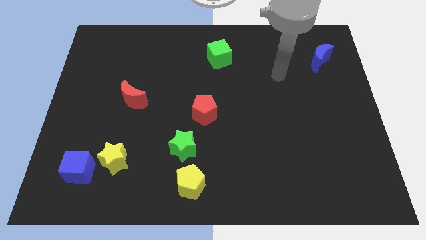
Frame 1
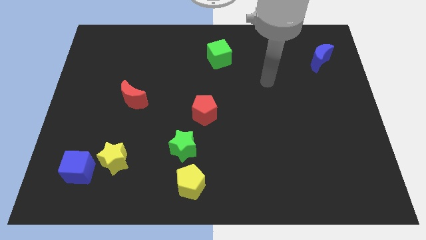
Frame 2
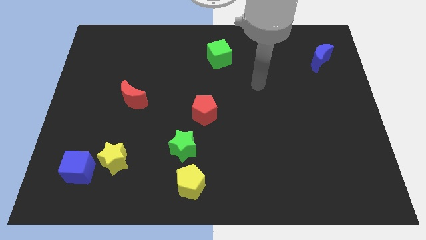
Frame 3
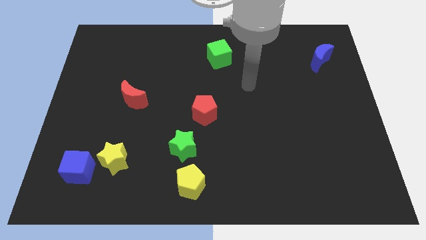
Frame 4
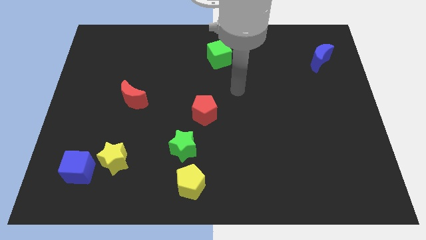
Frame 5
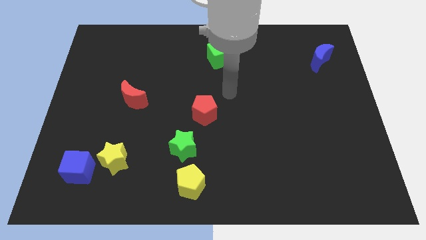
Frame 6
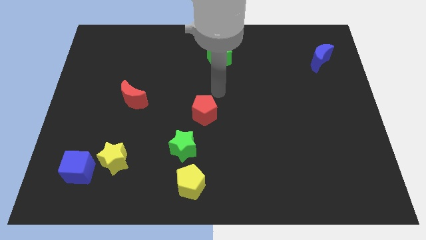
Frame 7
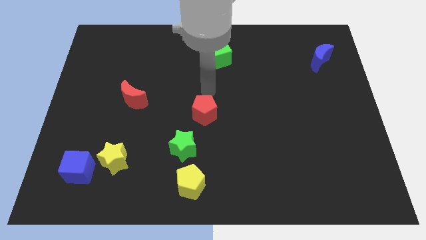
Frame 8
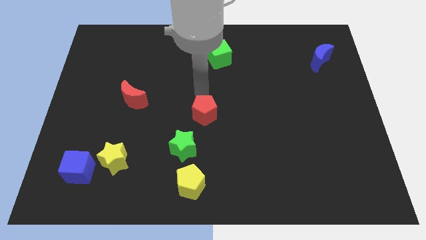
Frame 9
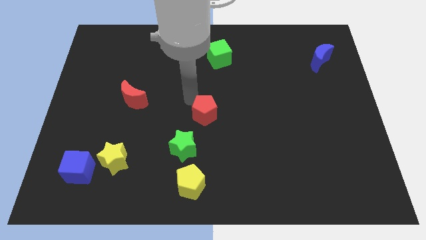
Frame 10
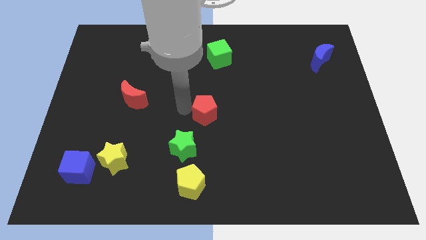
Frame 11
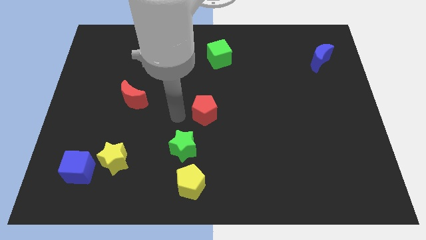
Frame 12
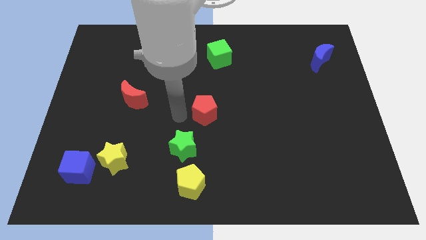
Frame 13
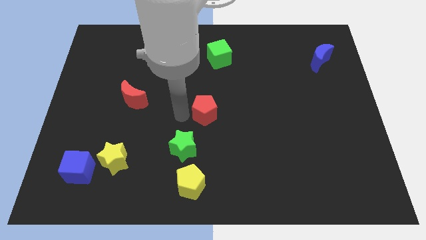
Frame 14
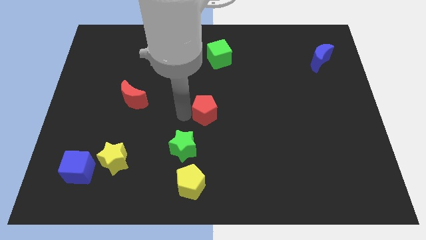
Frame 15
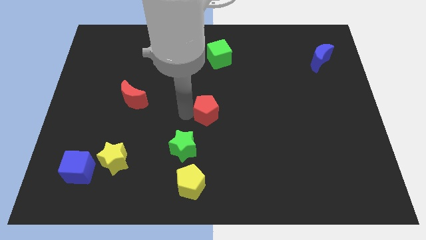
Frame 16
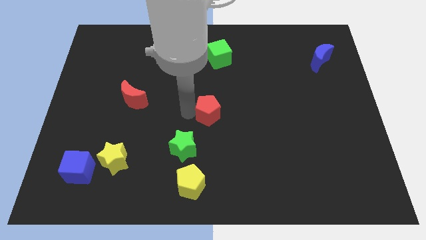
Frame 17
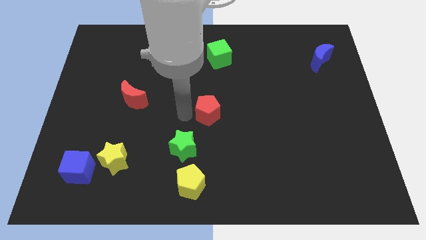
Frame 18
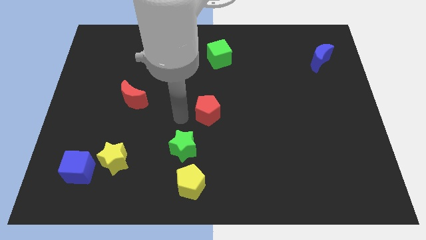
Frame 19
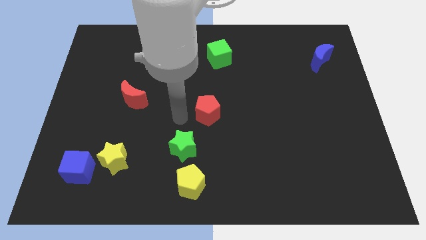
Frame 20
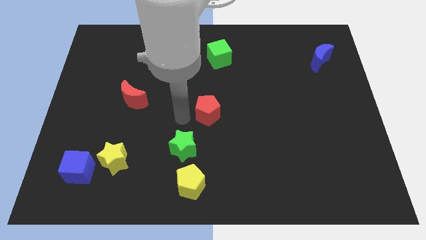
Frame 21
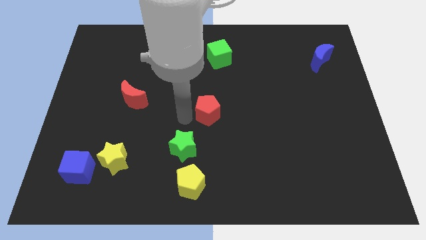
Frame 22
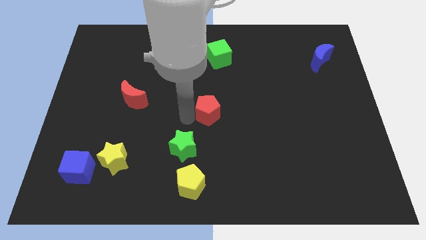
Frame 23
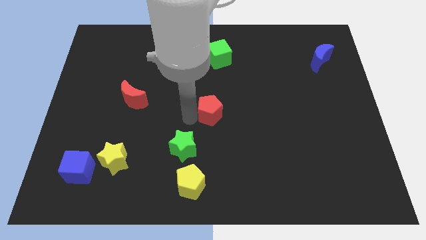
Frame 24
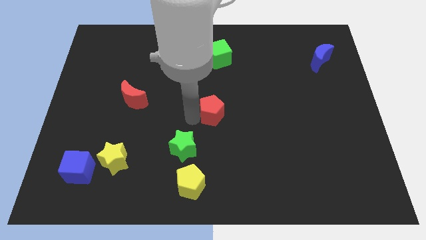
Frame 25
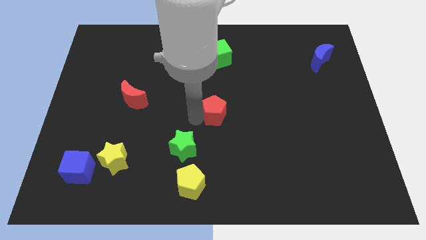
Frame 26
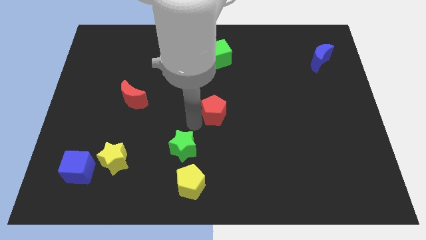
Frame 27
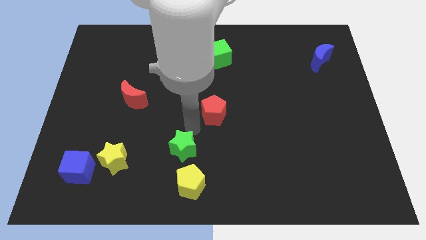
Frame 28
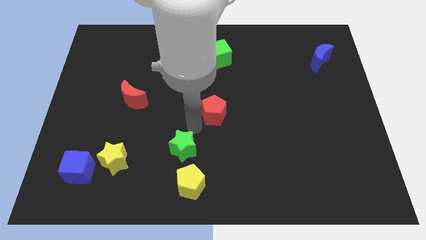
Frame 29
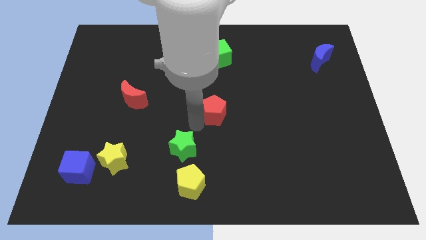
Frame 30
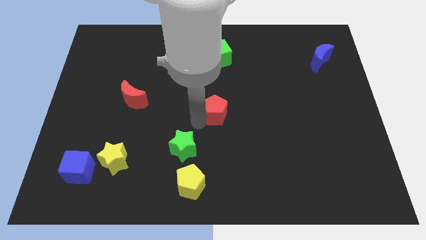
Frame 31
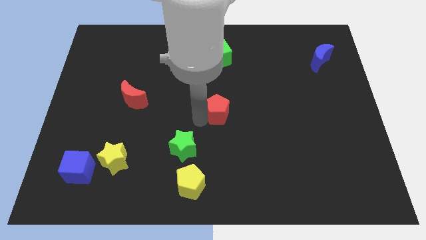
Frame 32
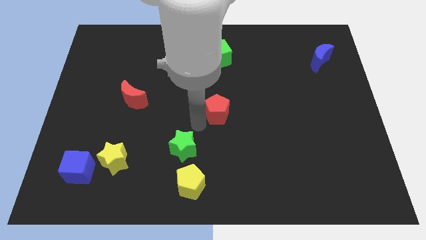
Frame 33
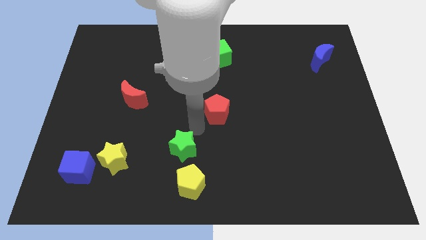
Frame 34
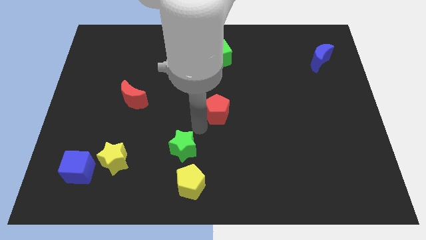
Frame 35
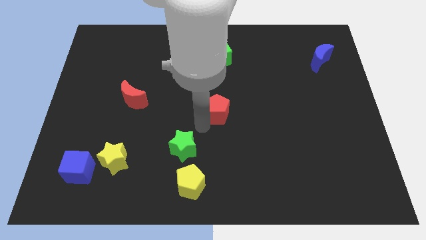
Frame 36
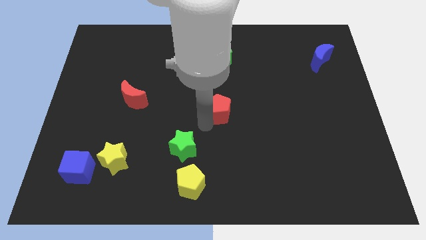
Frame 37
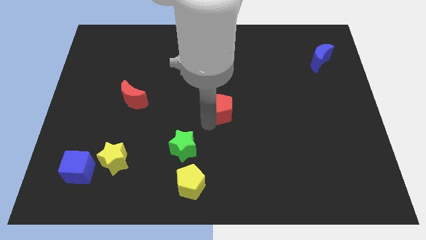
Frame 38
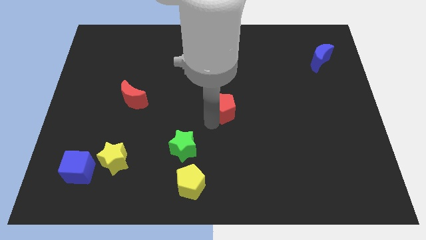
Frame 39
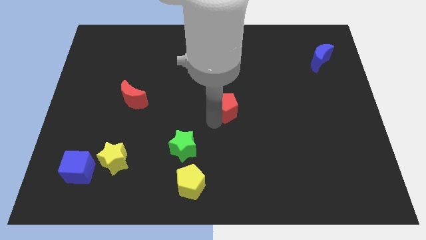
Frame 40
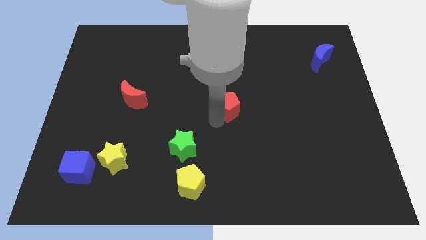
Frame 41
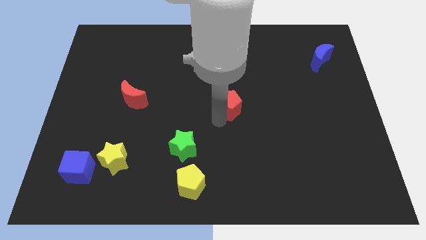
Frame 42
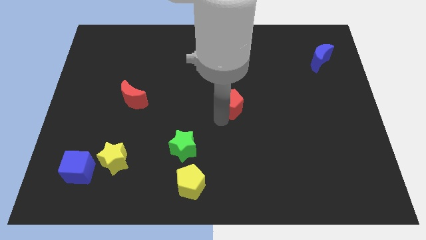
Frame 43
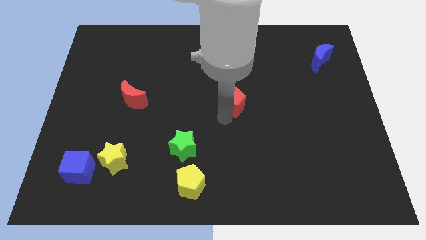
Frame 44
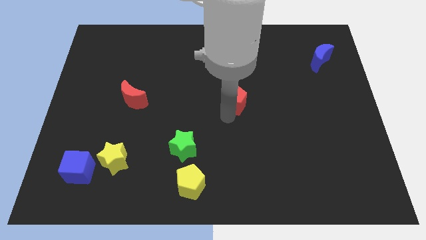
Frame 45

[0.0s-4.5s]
slide the red pentagon upwards and right diagonally somewhat

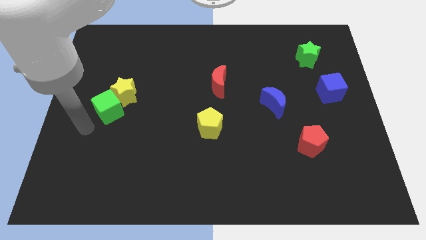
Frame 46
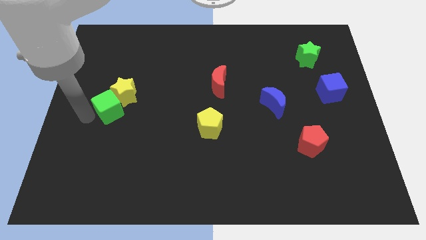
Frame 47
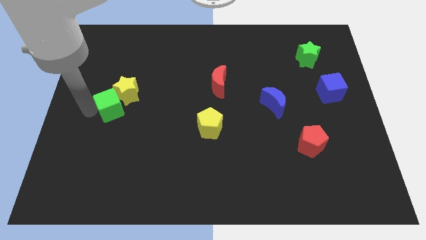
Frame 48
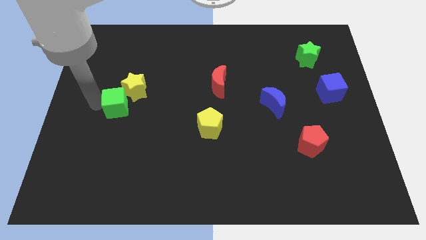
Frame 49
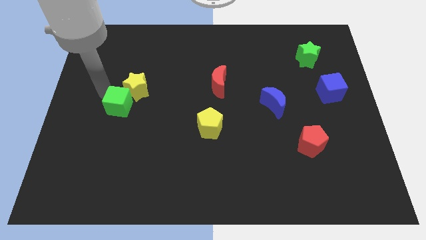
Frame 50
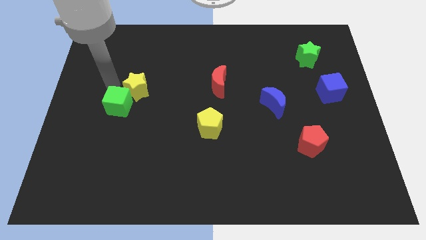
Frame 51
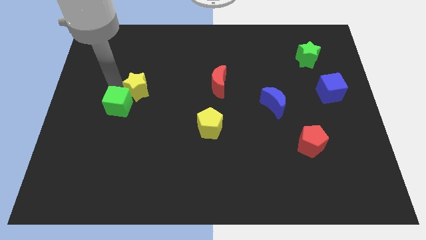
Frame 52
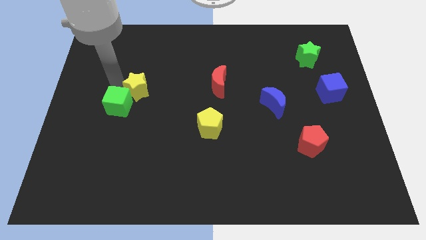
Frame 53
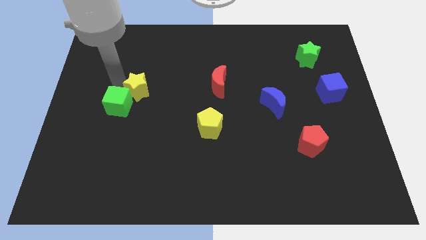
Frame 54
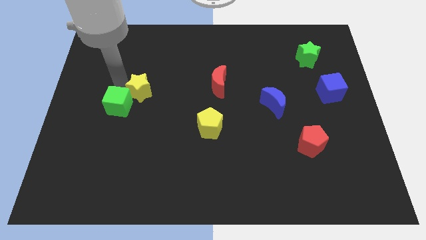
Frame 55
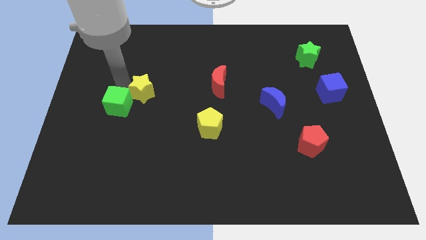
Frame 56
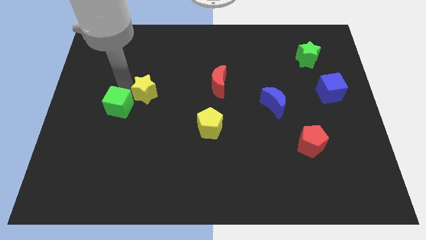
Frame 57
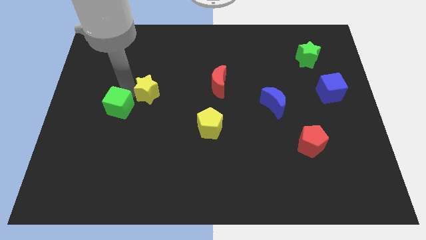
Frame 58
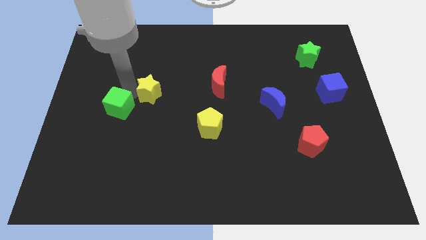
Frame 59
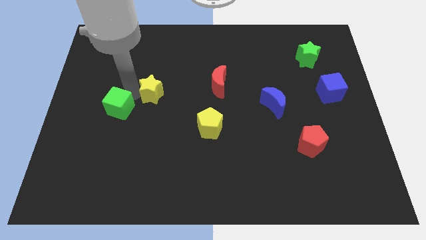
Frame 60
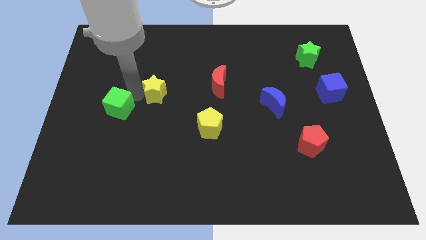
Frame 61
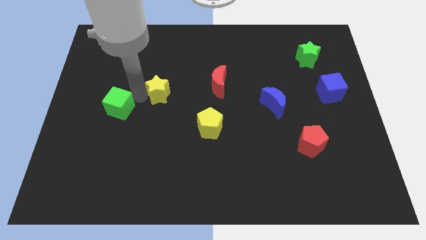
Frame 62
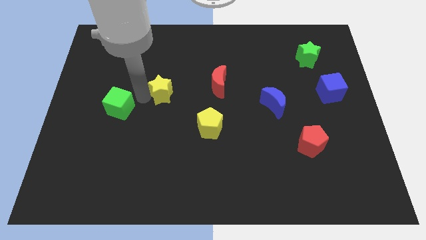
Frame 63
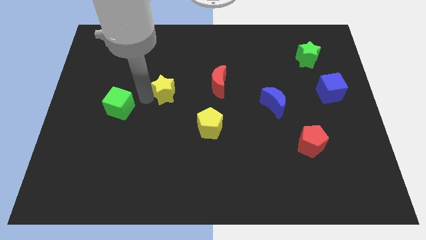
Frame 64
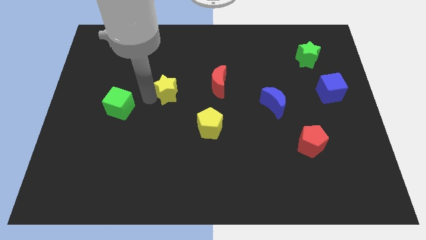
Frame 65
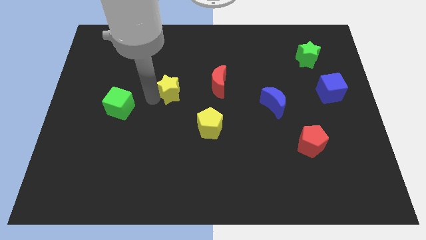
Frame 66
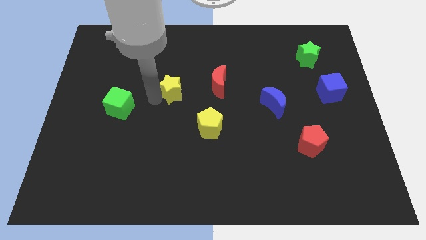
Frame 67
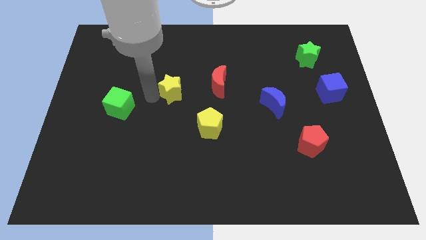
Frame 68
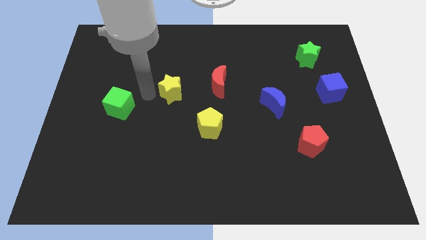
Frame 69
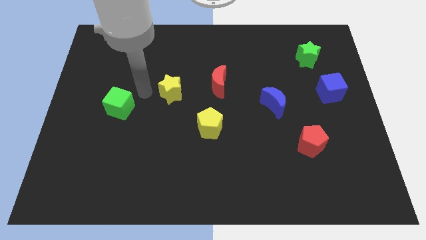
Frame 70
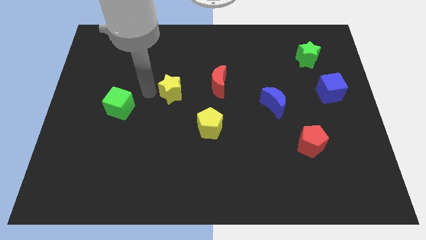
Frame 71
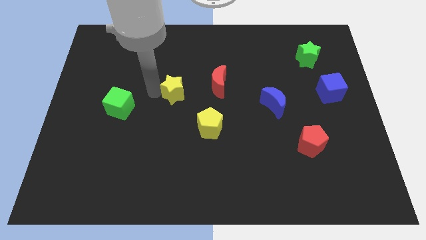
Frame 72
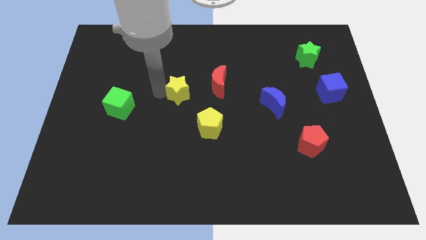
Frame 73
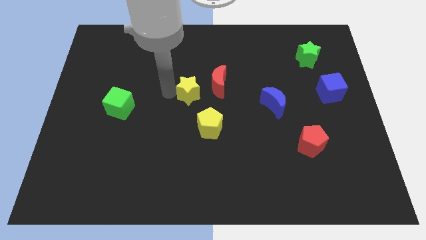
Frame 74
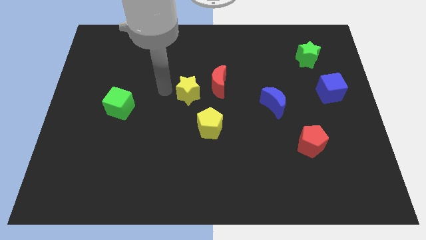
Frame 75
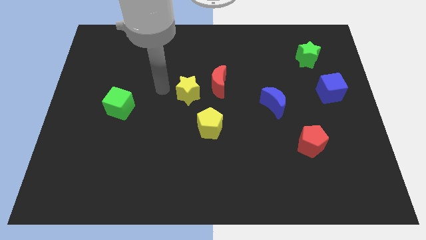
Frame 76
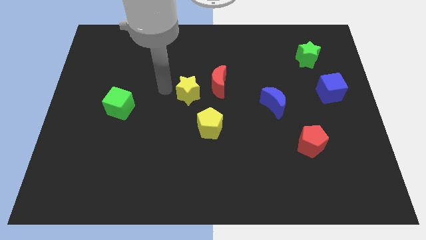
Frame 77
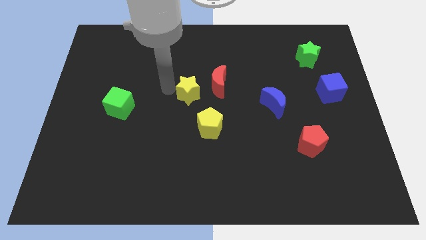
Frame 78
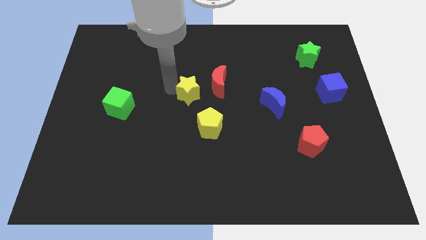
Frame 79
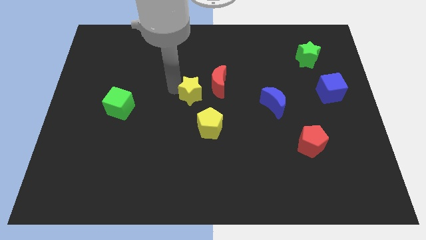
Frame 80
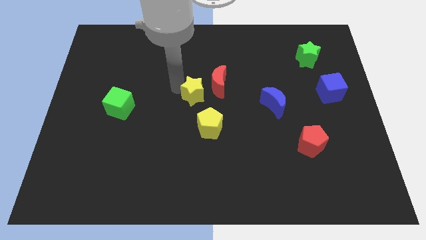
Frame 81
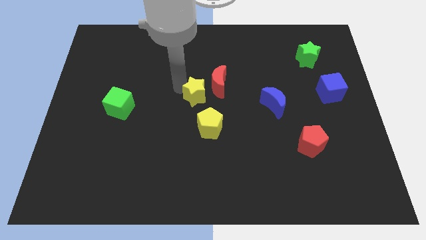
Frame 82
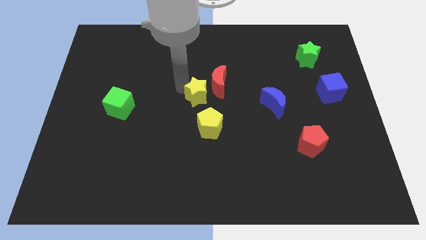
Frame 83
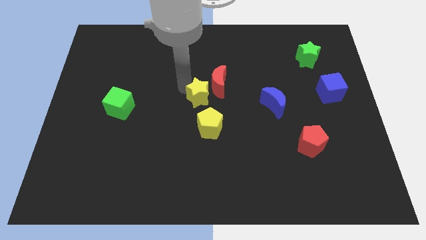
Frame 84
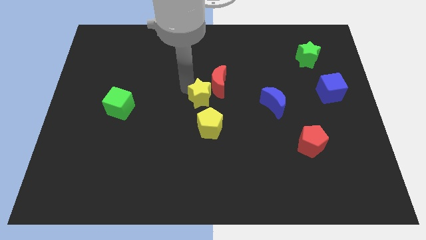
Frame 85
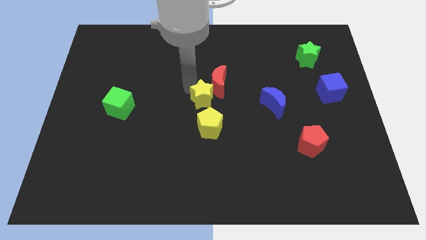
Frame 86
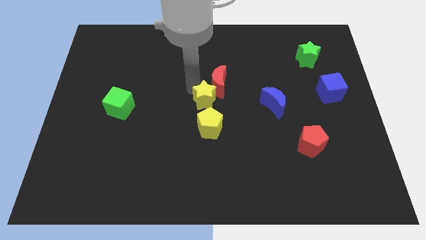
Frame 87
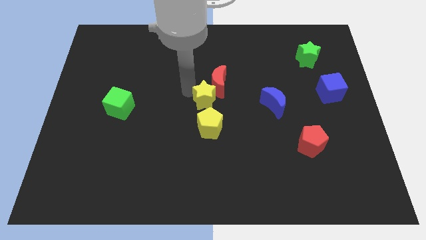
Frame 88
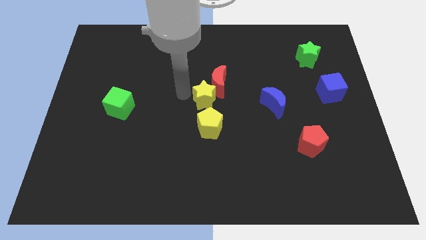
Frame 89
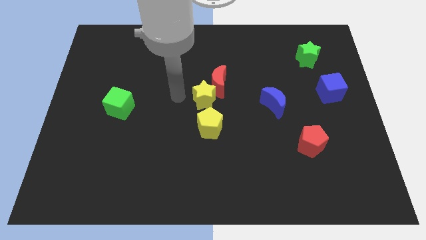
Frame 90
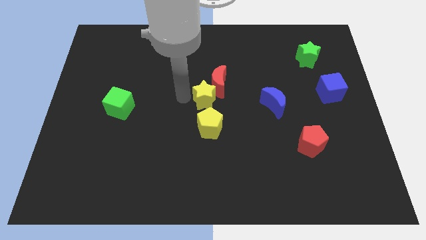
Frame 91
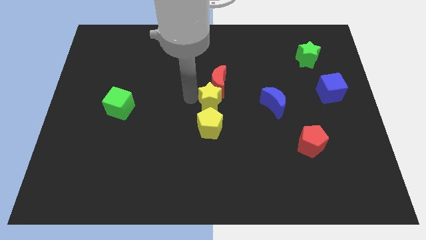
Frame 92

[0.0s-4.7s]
slide the yellow star to the right
